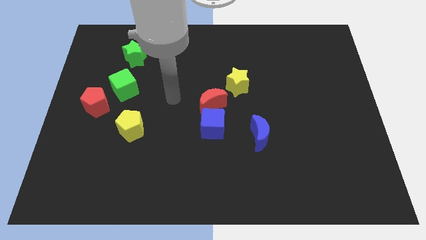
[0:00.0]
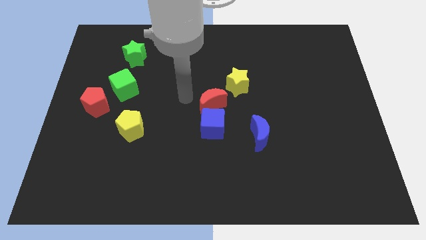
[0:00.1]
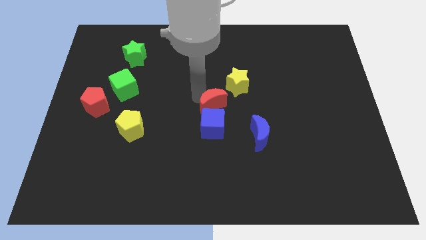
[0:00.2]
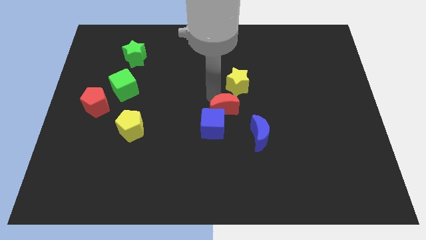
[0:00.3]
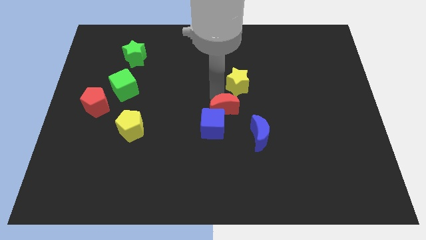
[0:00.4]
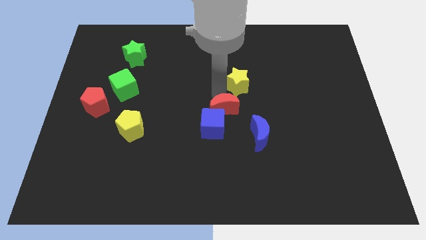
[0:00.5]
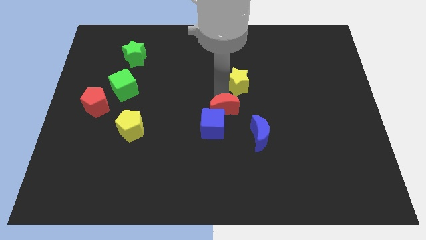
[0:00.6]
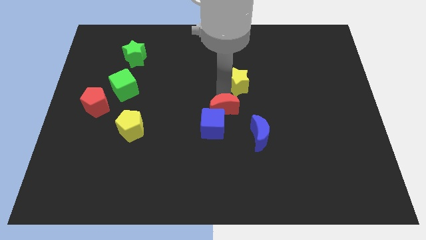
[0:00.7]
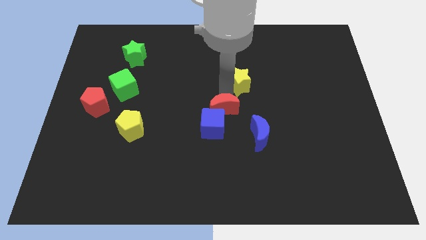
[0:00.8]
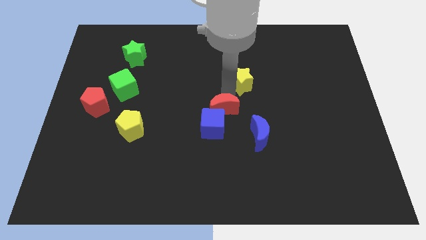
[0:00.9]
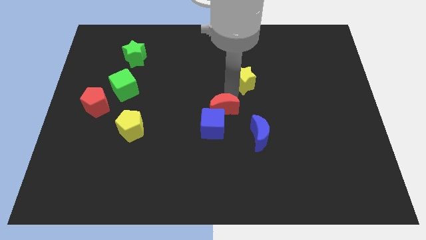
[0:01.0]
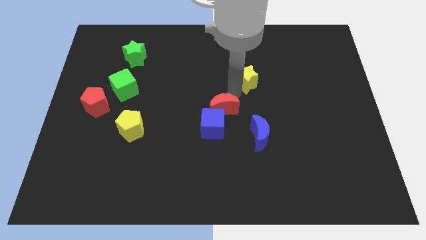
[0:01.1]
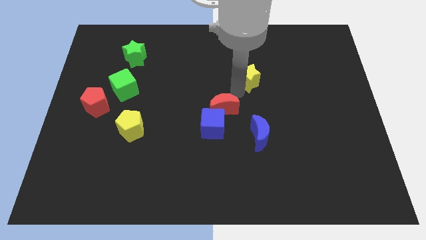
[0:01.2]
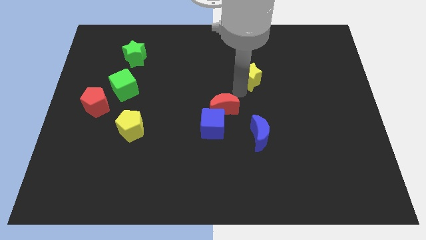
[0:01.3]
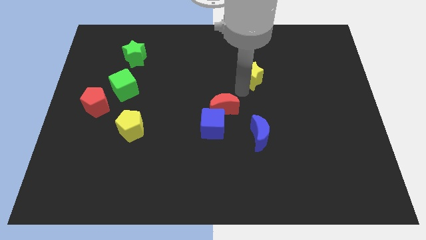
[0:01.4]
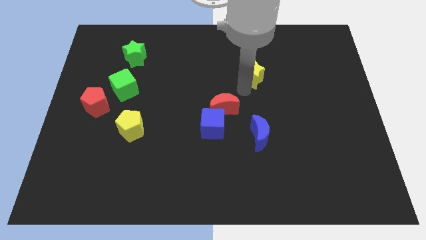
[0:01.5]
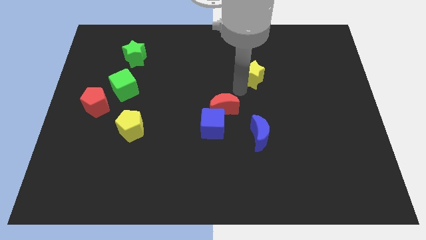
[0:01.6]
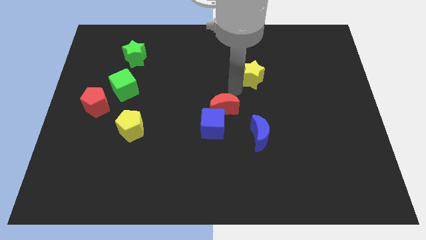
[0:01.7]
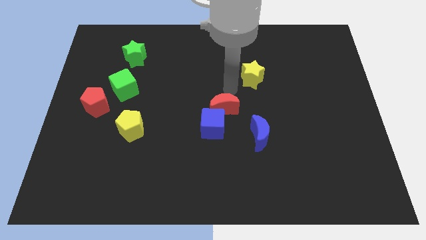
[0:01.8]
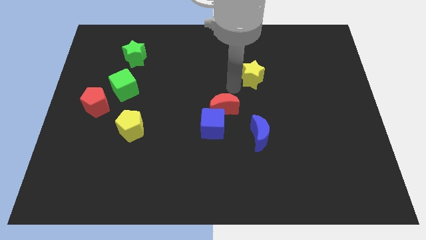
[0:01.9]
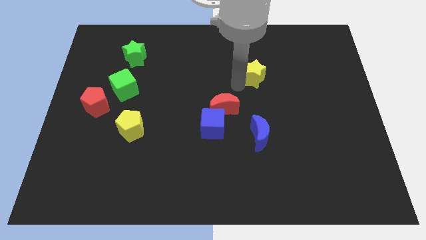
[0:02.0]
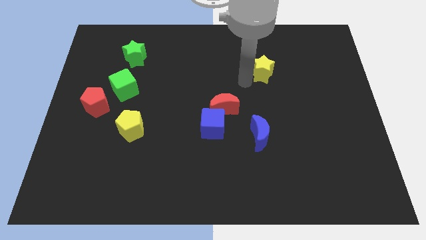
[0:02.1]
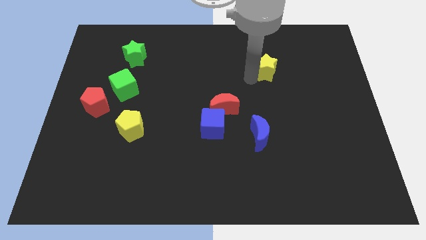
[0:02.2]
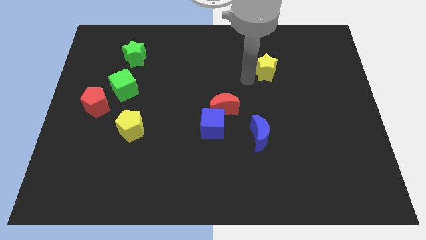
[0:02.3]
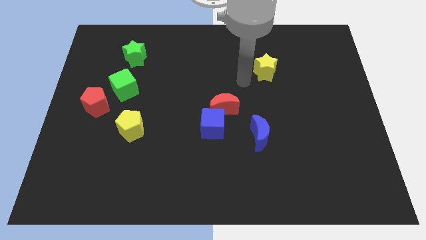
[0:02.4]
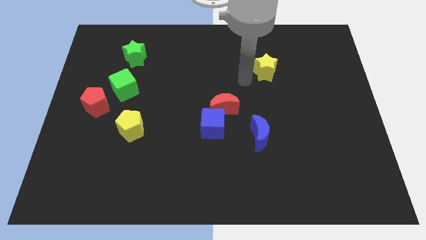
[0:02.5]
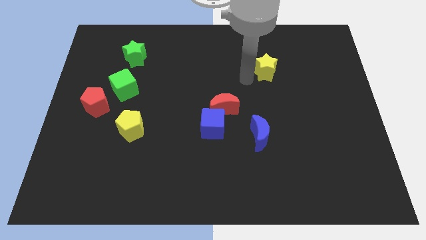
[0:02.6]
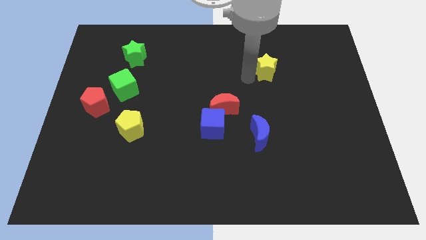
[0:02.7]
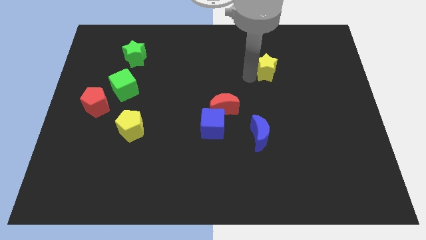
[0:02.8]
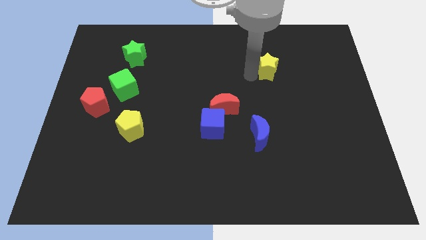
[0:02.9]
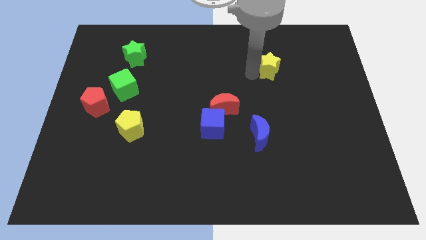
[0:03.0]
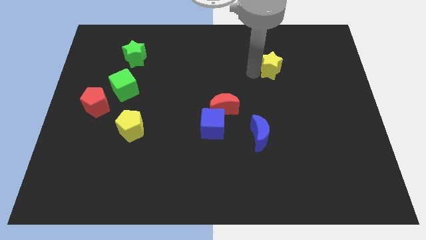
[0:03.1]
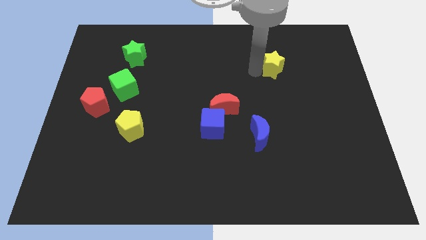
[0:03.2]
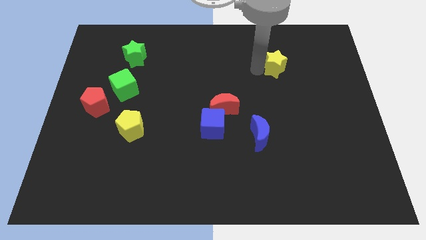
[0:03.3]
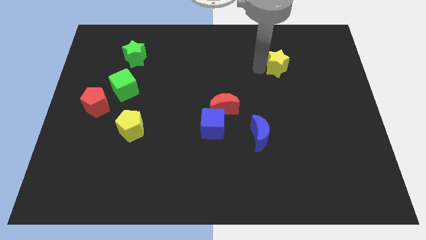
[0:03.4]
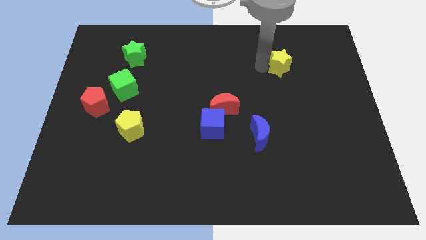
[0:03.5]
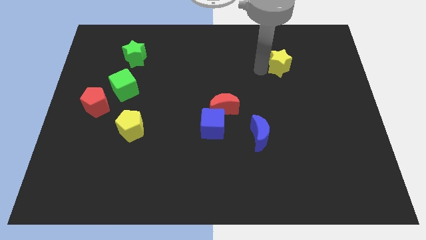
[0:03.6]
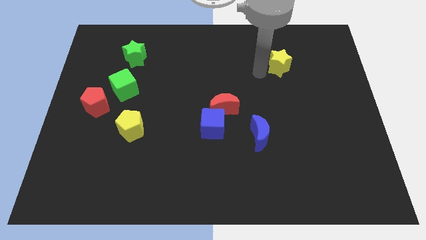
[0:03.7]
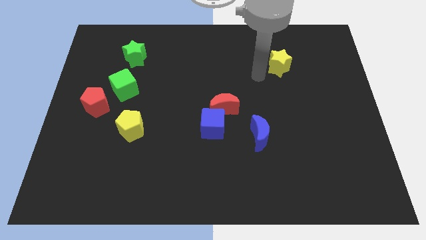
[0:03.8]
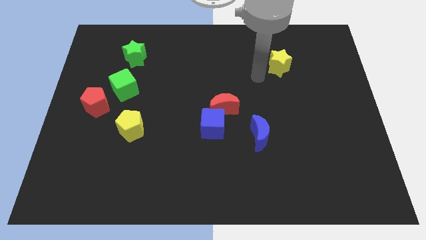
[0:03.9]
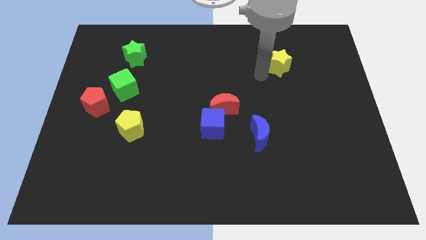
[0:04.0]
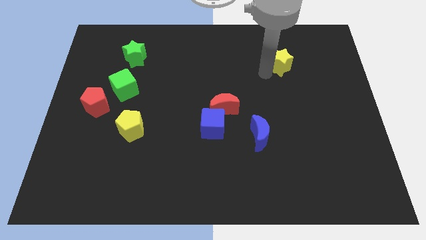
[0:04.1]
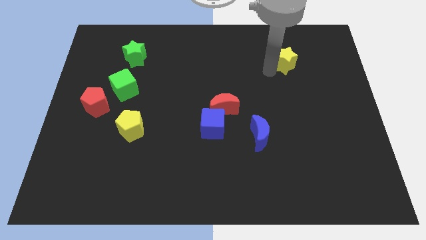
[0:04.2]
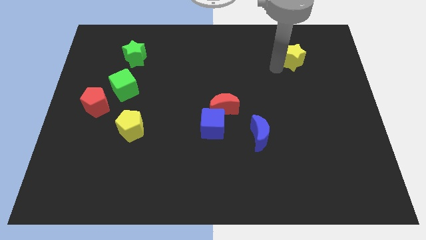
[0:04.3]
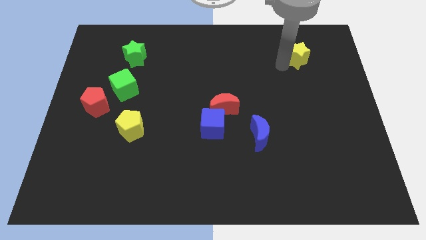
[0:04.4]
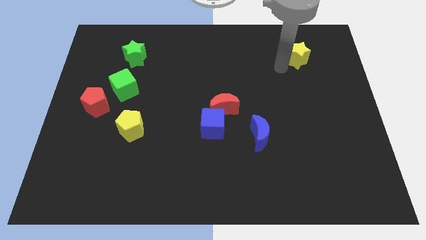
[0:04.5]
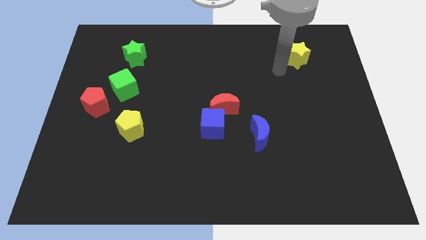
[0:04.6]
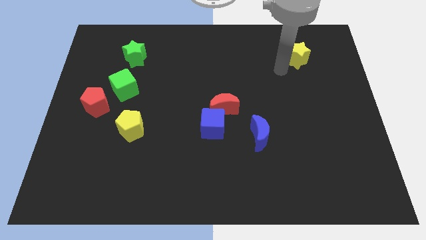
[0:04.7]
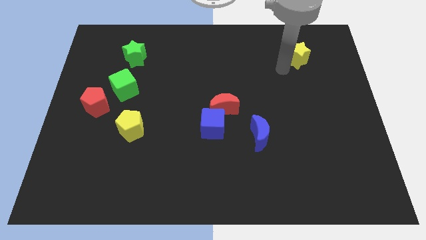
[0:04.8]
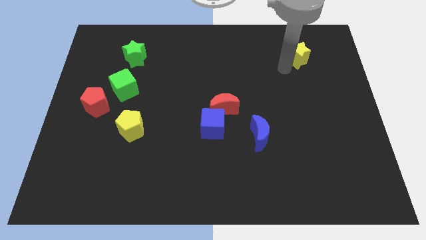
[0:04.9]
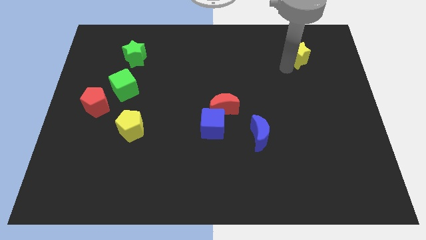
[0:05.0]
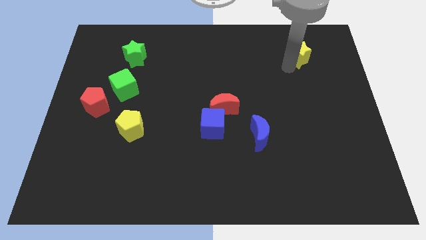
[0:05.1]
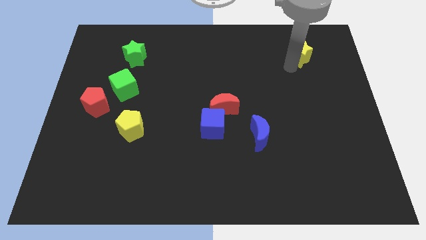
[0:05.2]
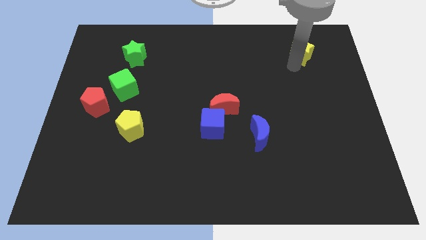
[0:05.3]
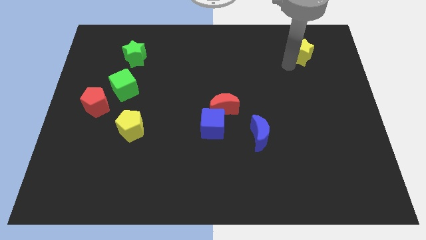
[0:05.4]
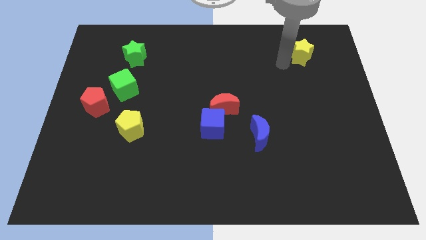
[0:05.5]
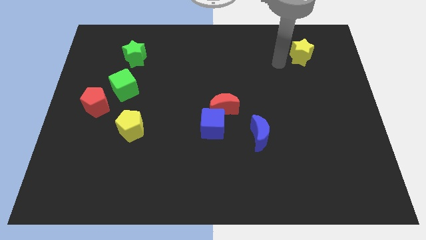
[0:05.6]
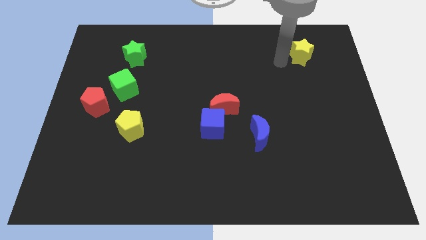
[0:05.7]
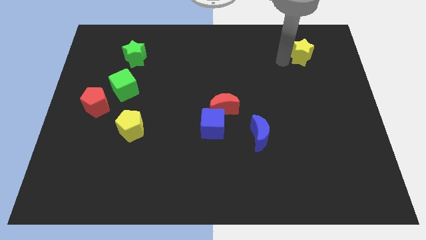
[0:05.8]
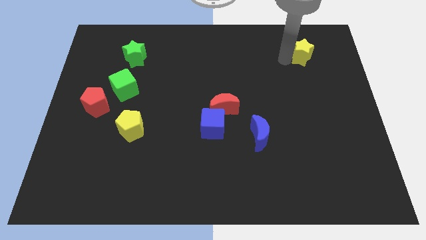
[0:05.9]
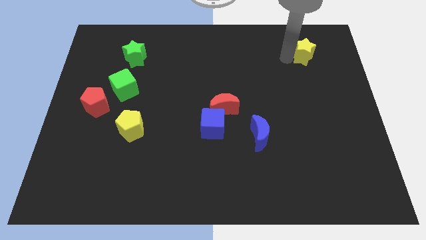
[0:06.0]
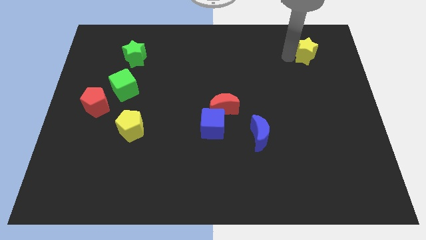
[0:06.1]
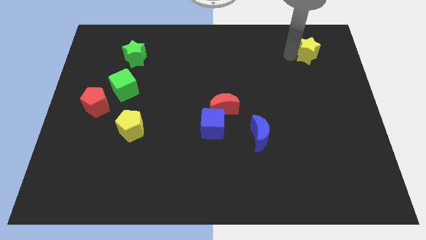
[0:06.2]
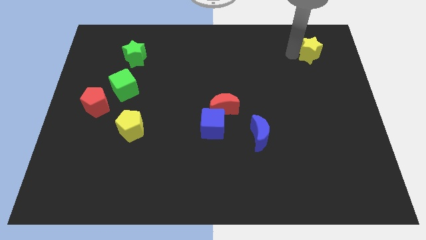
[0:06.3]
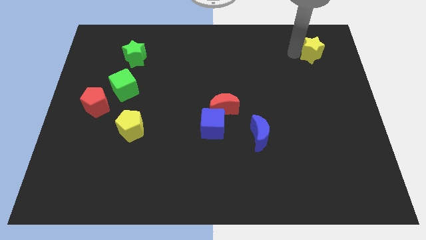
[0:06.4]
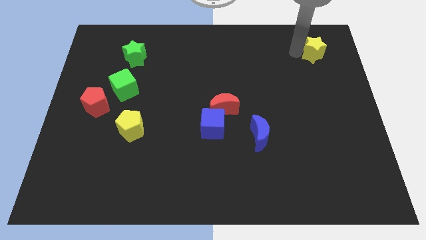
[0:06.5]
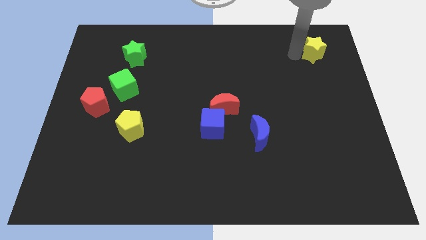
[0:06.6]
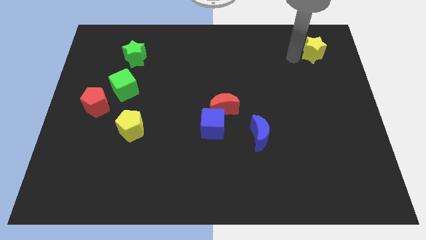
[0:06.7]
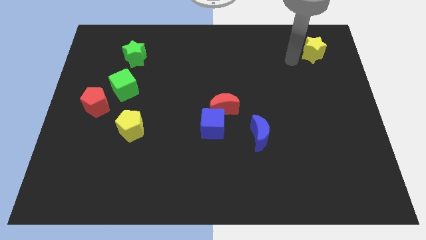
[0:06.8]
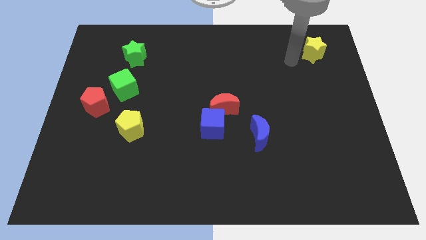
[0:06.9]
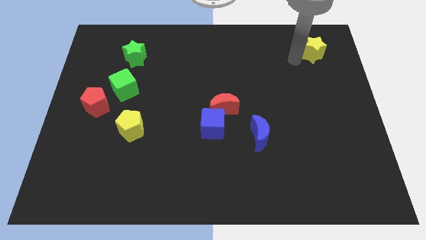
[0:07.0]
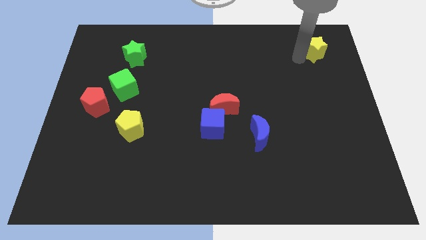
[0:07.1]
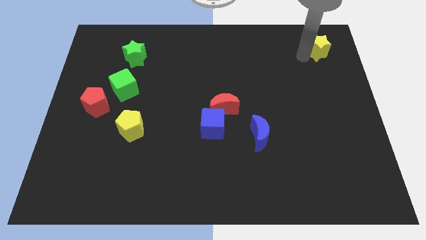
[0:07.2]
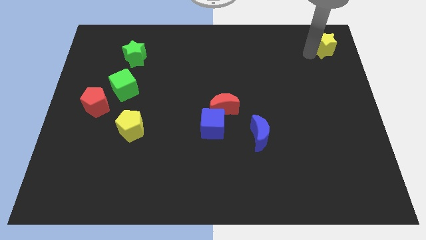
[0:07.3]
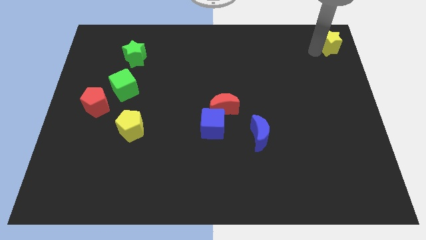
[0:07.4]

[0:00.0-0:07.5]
put the yellow star to the upper right corner
